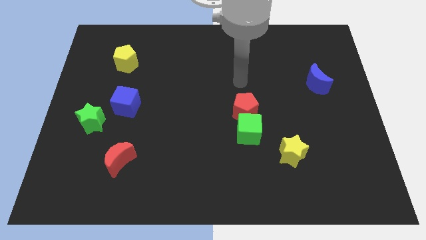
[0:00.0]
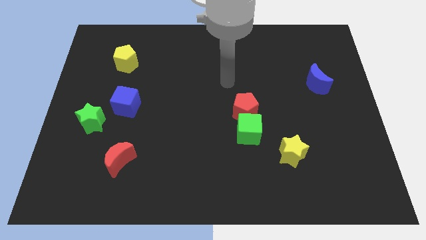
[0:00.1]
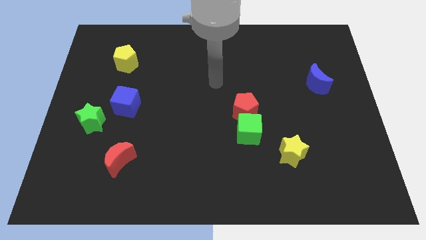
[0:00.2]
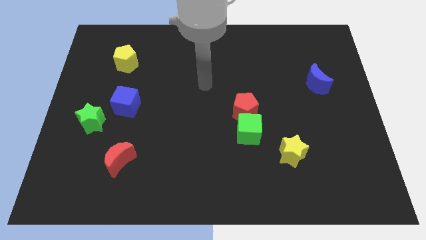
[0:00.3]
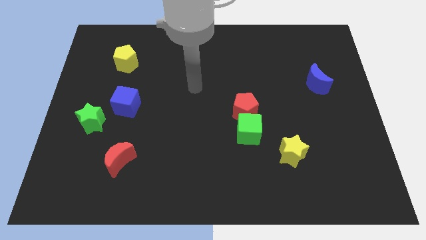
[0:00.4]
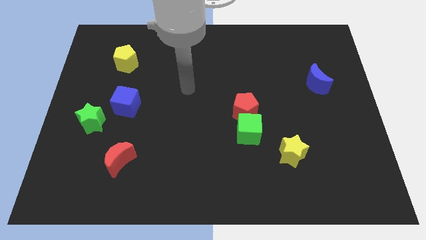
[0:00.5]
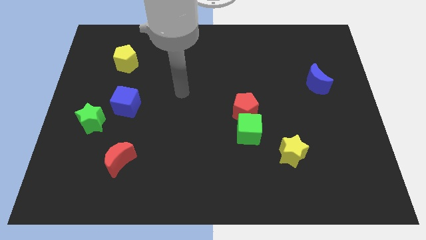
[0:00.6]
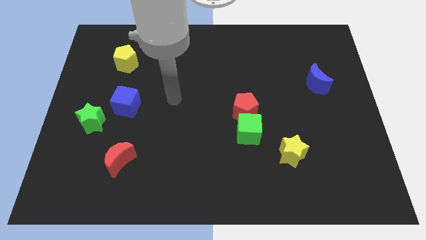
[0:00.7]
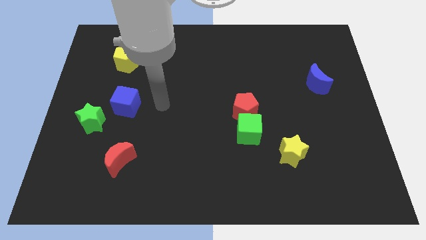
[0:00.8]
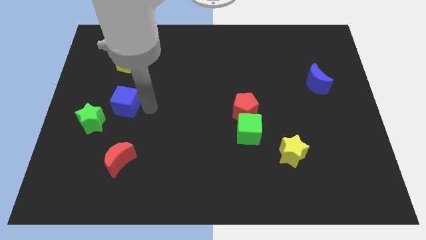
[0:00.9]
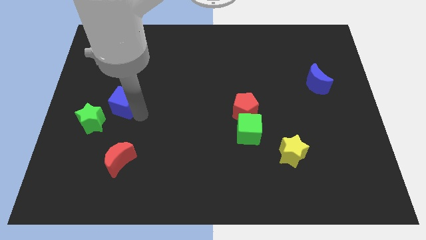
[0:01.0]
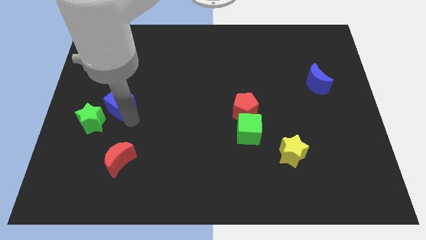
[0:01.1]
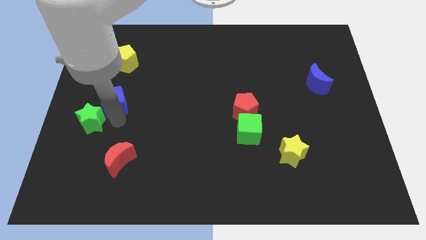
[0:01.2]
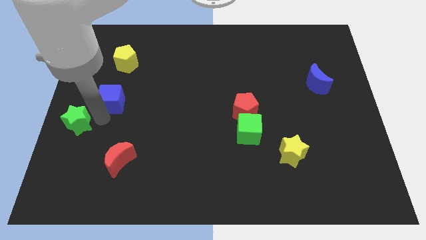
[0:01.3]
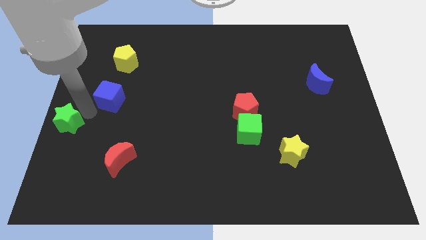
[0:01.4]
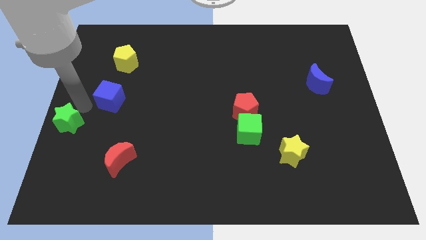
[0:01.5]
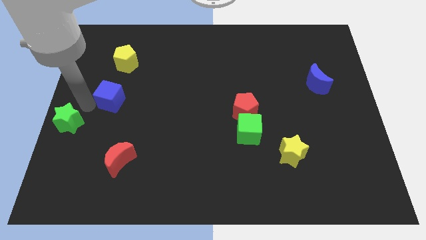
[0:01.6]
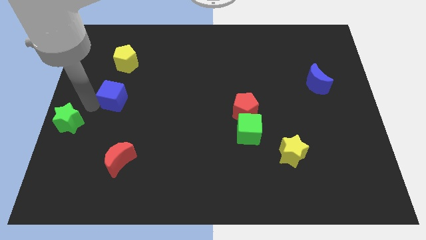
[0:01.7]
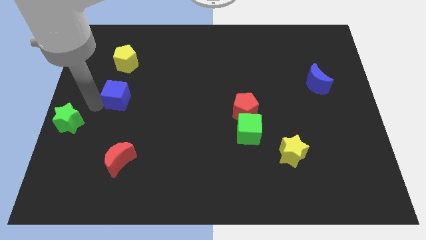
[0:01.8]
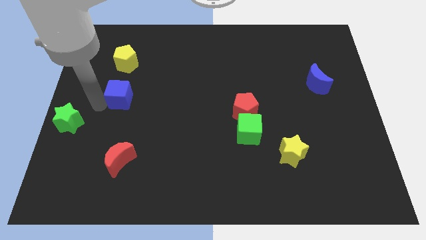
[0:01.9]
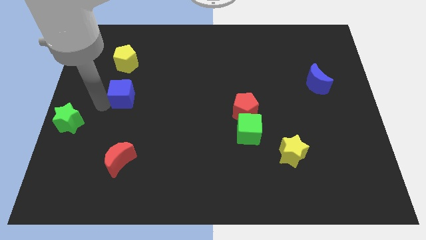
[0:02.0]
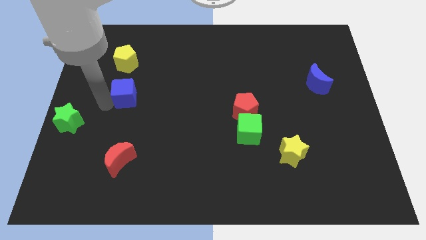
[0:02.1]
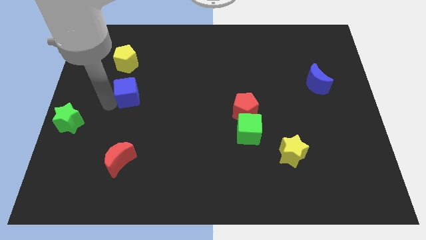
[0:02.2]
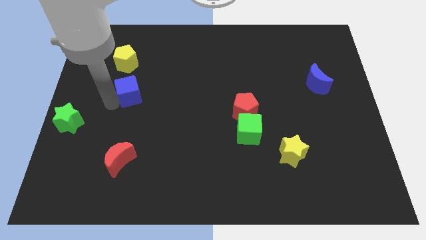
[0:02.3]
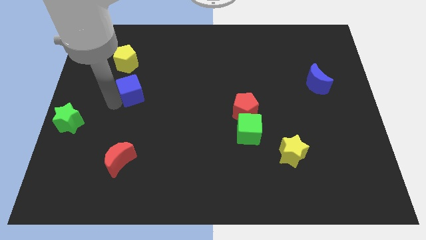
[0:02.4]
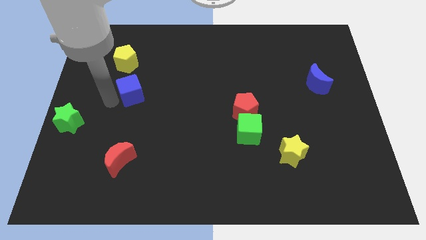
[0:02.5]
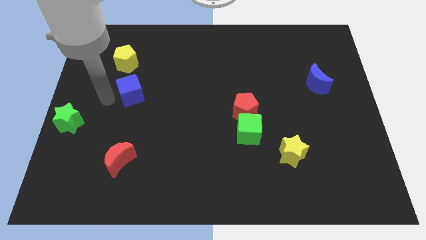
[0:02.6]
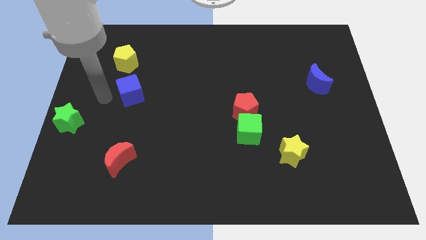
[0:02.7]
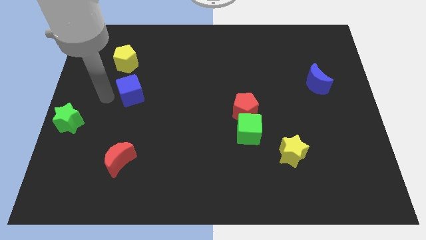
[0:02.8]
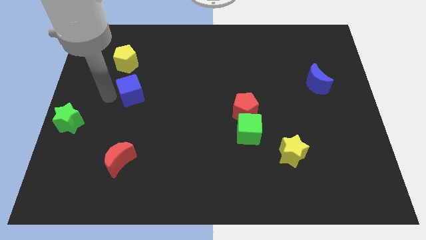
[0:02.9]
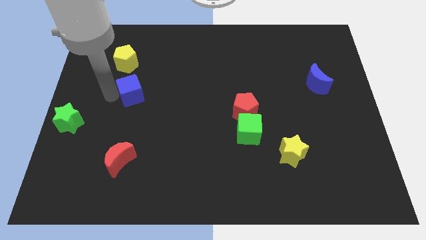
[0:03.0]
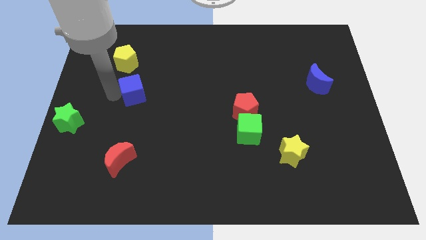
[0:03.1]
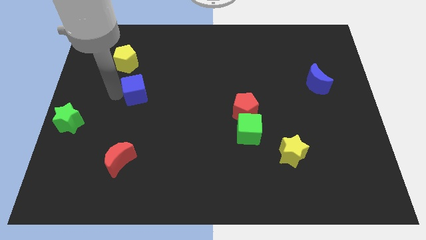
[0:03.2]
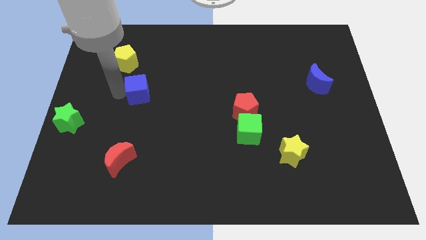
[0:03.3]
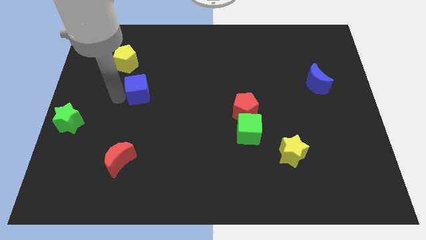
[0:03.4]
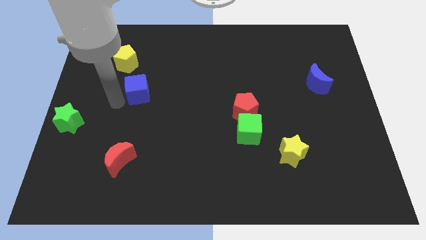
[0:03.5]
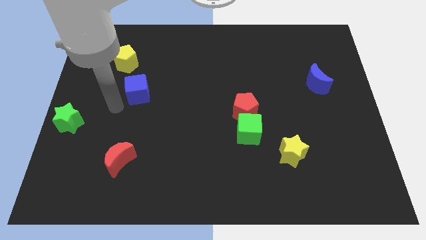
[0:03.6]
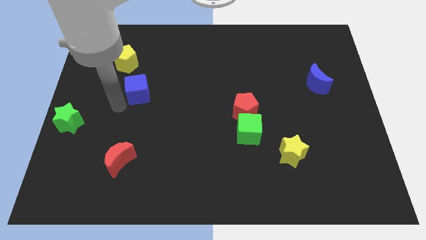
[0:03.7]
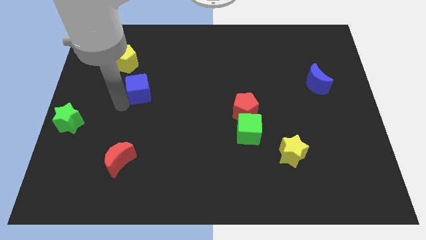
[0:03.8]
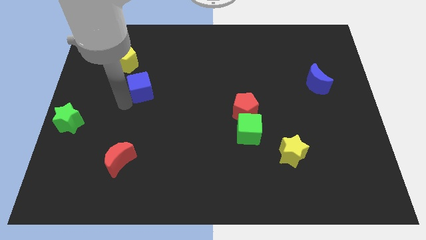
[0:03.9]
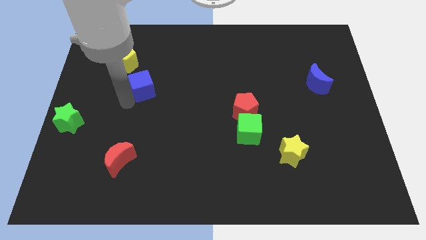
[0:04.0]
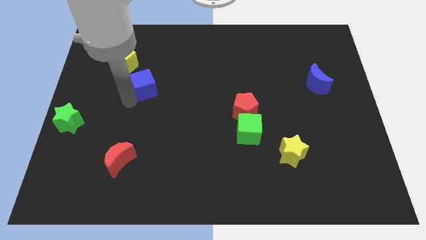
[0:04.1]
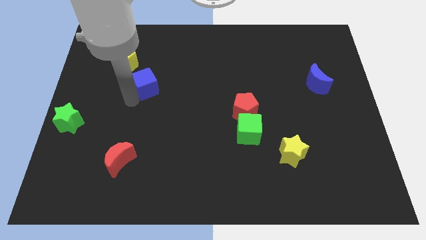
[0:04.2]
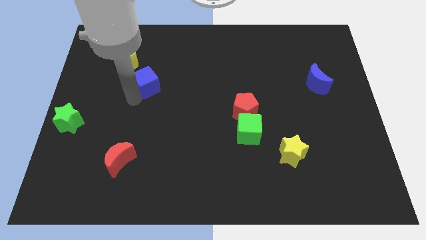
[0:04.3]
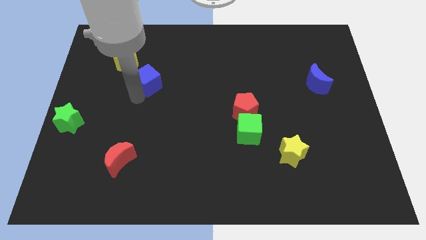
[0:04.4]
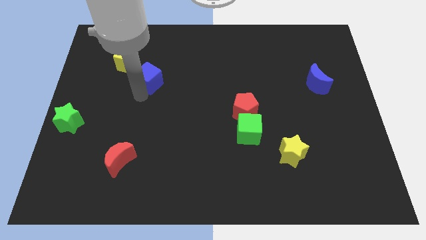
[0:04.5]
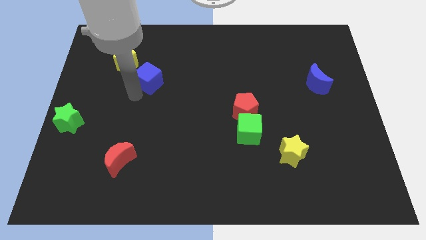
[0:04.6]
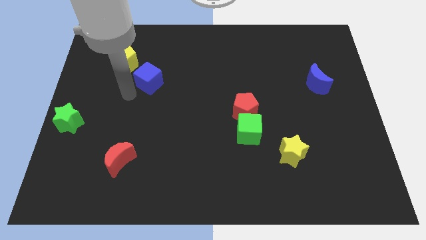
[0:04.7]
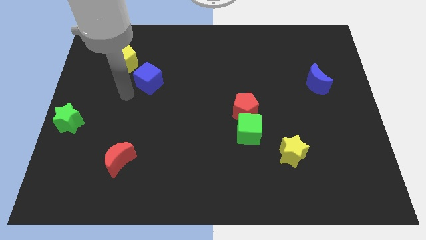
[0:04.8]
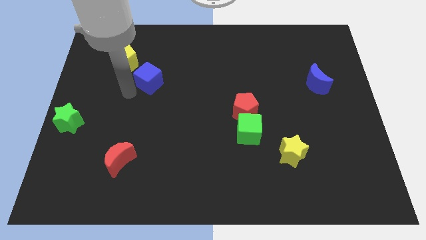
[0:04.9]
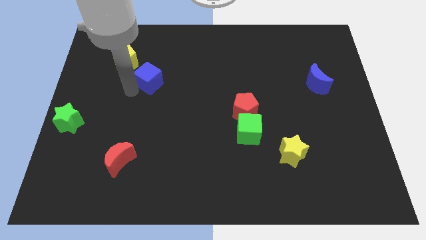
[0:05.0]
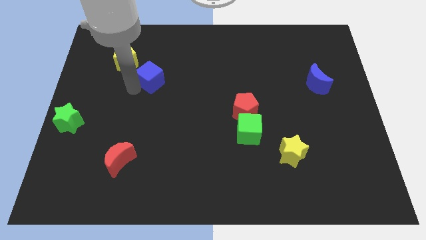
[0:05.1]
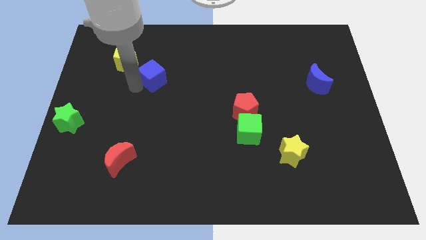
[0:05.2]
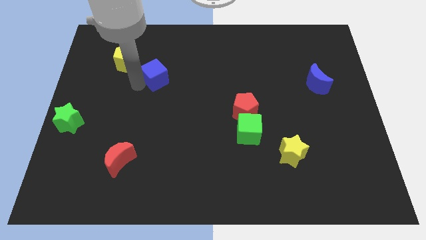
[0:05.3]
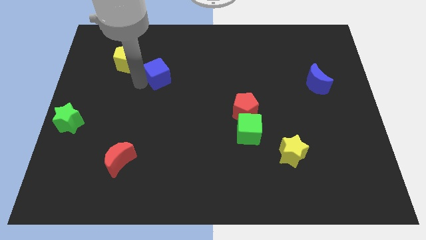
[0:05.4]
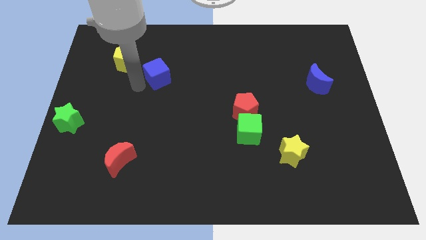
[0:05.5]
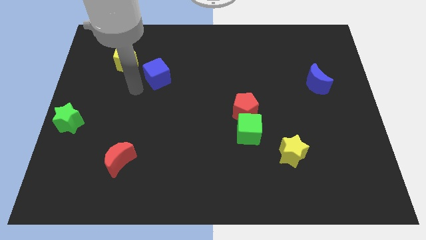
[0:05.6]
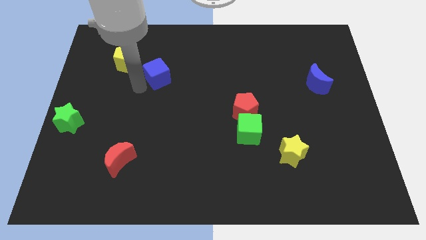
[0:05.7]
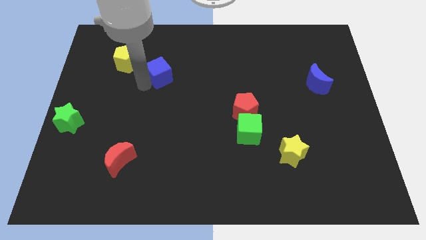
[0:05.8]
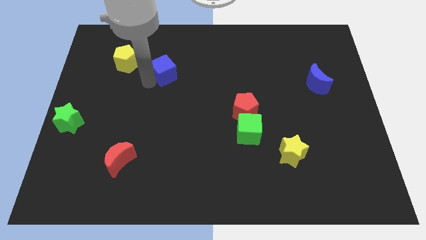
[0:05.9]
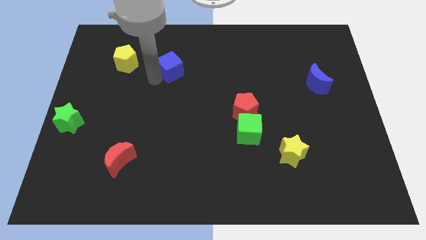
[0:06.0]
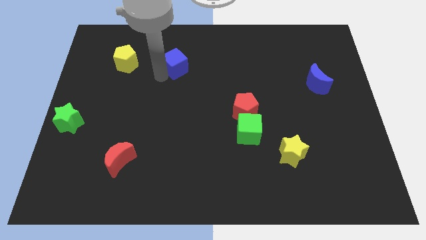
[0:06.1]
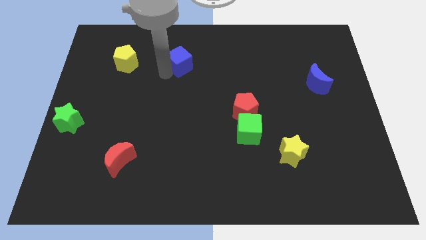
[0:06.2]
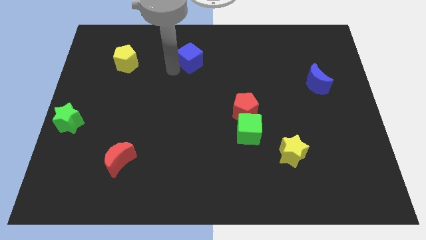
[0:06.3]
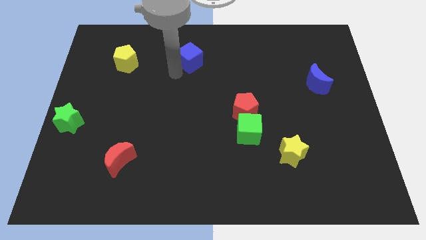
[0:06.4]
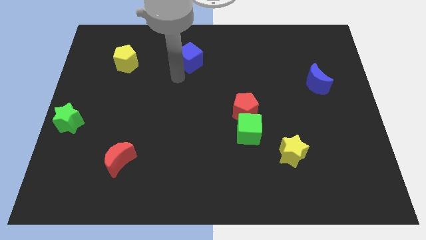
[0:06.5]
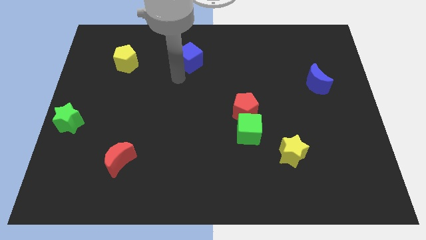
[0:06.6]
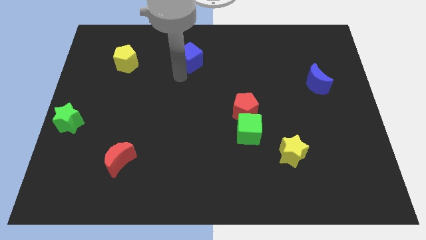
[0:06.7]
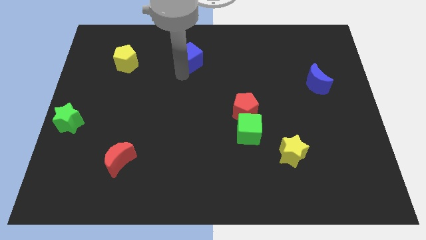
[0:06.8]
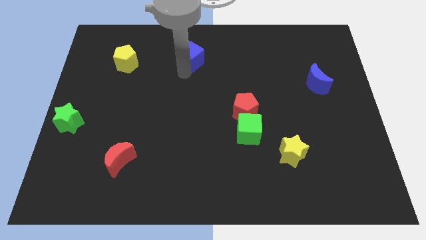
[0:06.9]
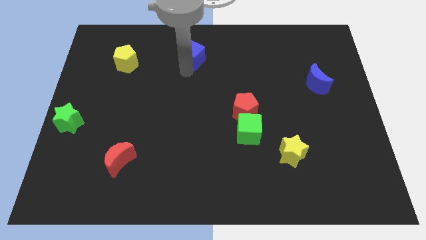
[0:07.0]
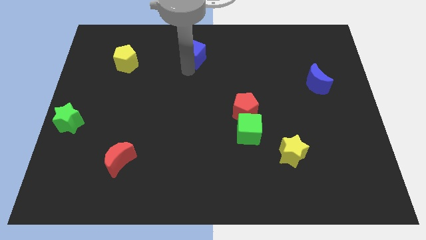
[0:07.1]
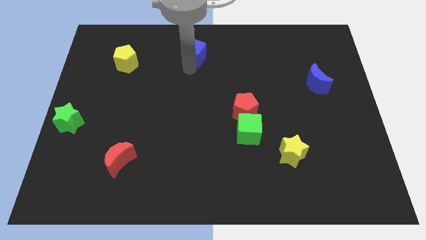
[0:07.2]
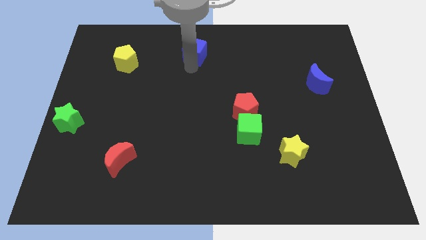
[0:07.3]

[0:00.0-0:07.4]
put the blue cube to the towards your base
